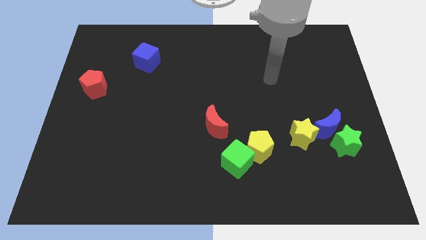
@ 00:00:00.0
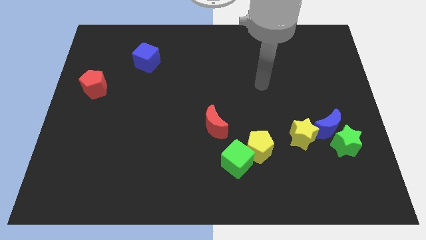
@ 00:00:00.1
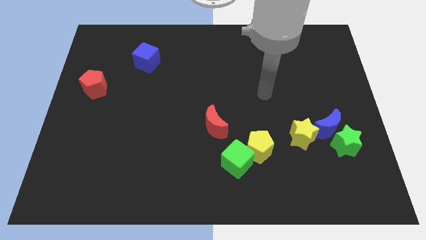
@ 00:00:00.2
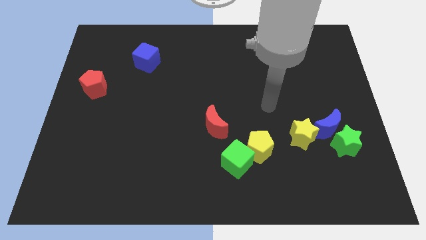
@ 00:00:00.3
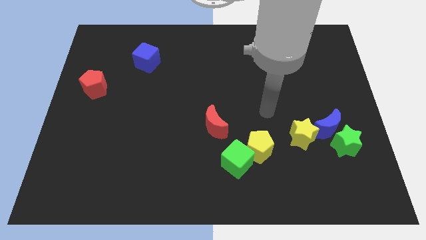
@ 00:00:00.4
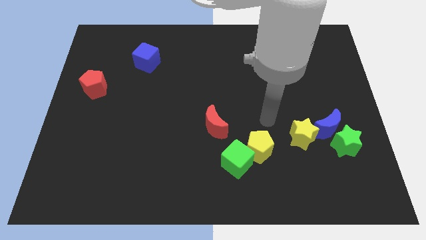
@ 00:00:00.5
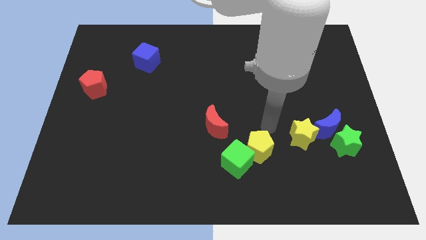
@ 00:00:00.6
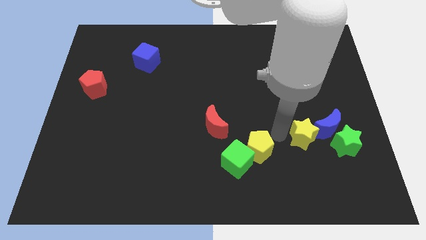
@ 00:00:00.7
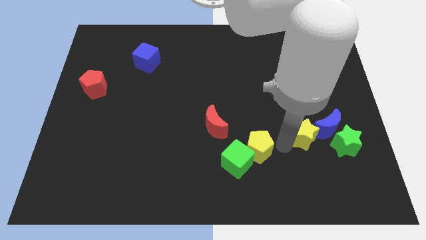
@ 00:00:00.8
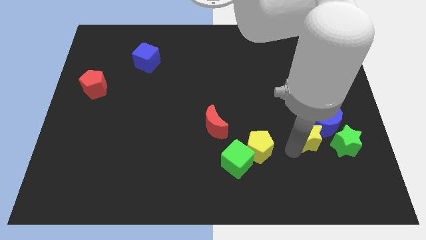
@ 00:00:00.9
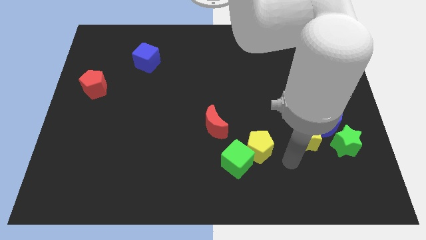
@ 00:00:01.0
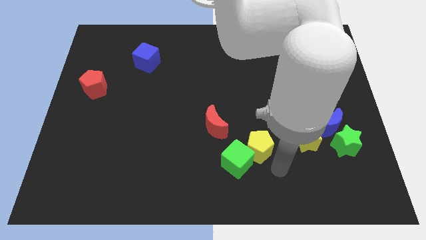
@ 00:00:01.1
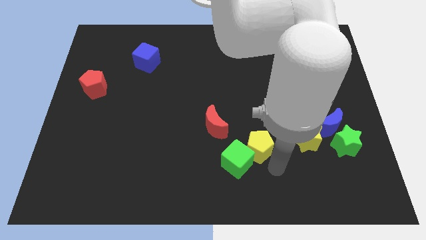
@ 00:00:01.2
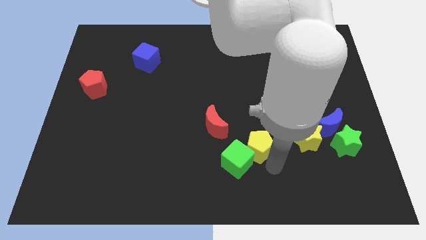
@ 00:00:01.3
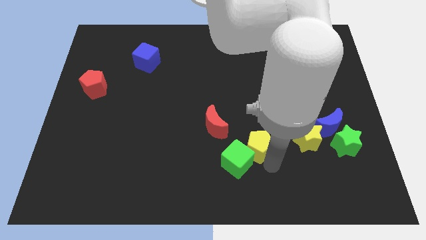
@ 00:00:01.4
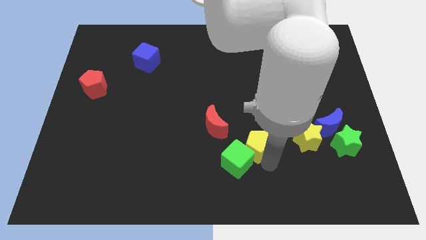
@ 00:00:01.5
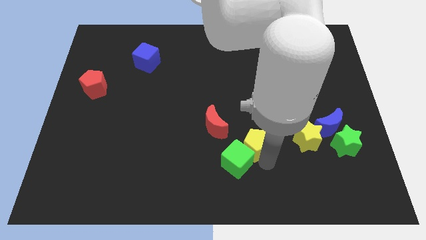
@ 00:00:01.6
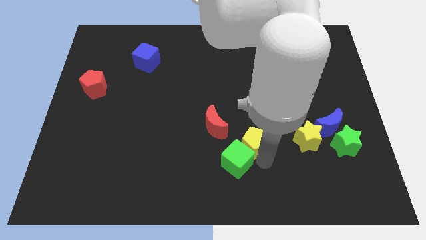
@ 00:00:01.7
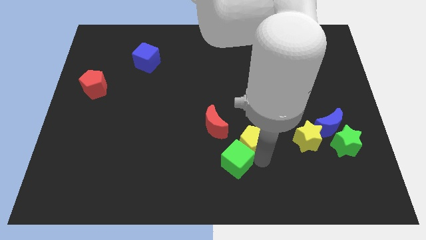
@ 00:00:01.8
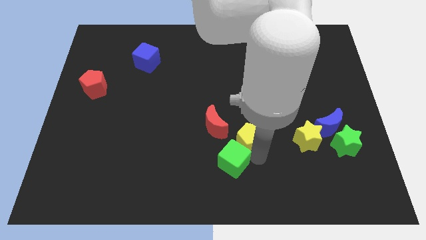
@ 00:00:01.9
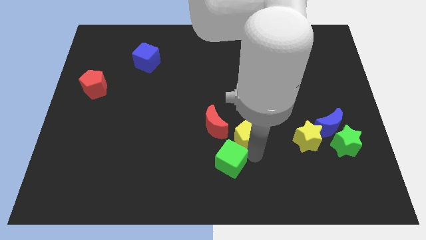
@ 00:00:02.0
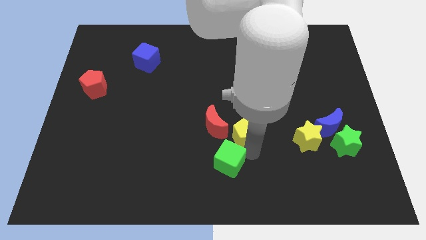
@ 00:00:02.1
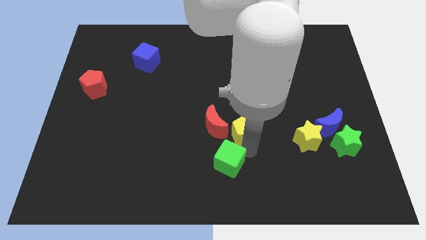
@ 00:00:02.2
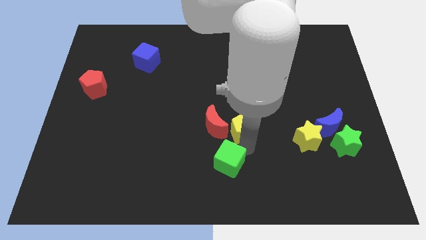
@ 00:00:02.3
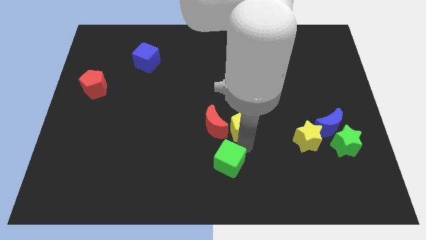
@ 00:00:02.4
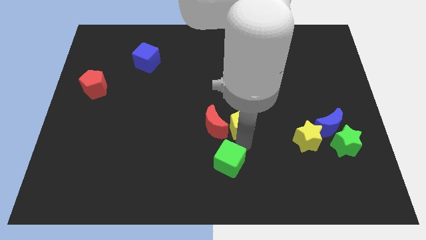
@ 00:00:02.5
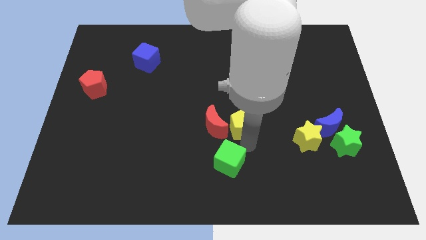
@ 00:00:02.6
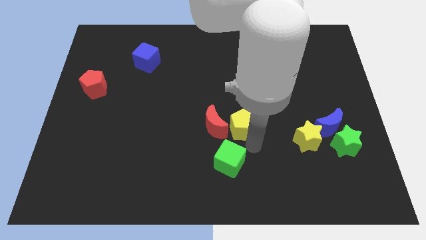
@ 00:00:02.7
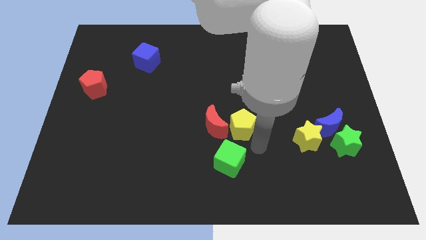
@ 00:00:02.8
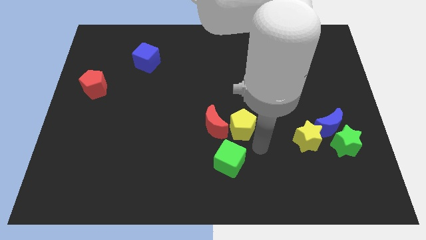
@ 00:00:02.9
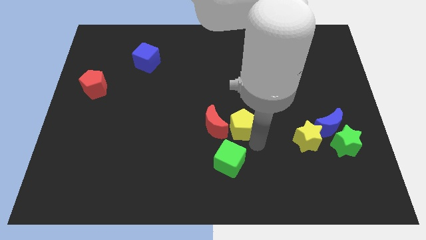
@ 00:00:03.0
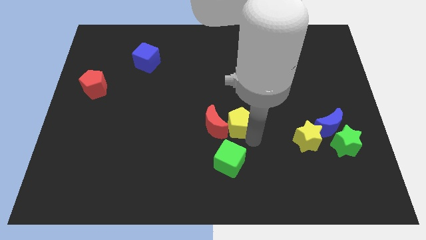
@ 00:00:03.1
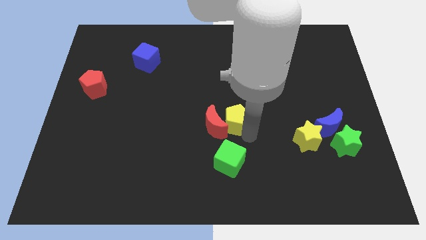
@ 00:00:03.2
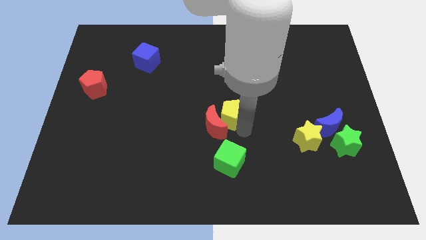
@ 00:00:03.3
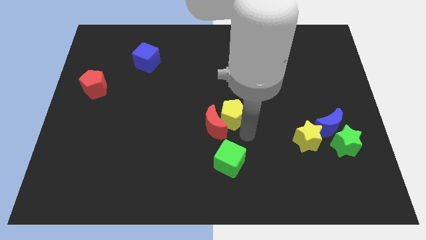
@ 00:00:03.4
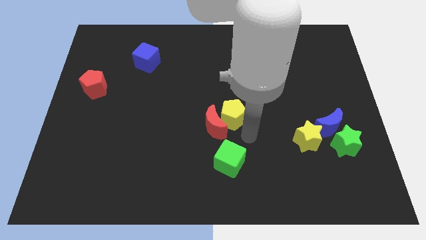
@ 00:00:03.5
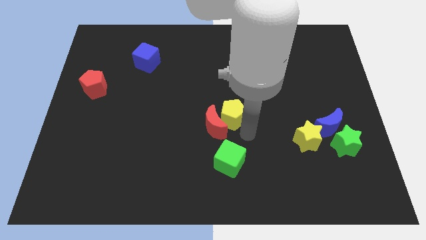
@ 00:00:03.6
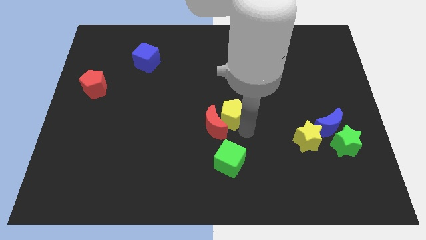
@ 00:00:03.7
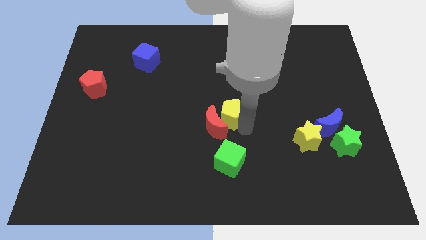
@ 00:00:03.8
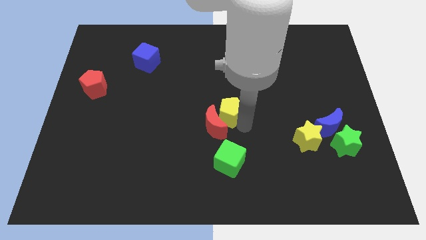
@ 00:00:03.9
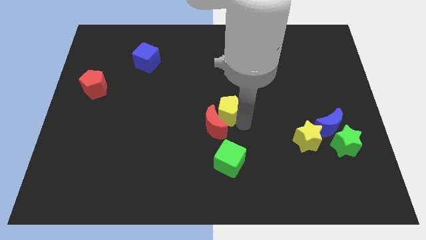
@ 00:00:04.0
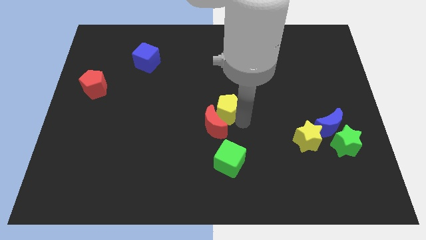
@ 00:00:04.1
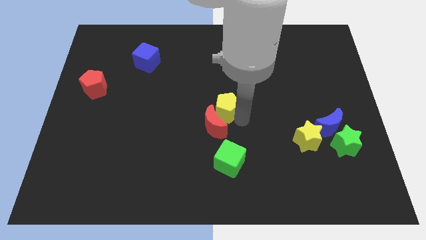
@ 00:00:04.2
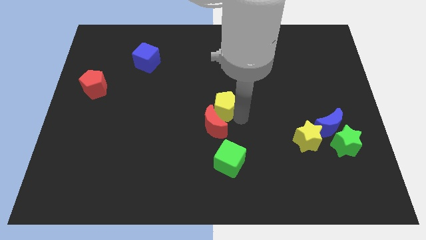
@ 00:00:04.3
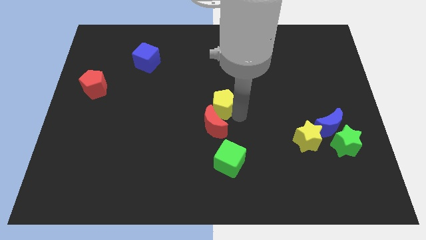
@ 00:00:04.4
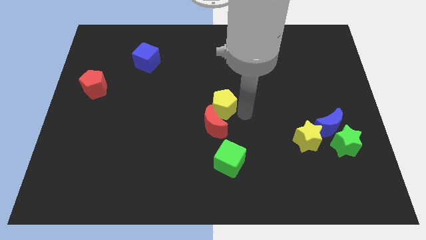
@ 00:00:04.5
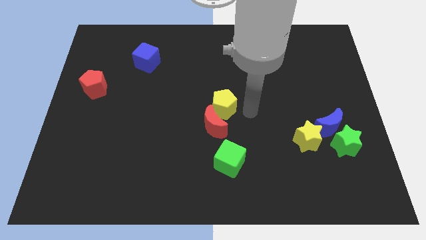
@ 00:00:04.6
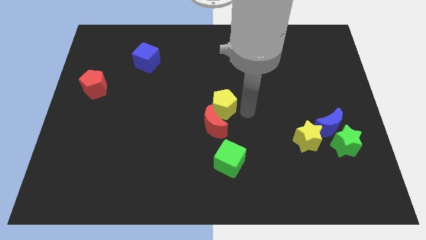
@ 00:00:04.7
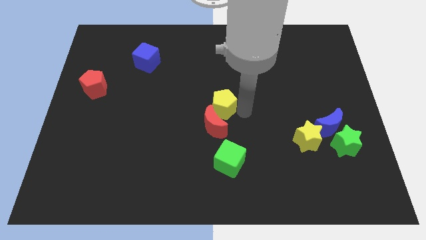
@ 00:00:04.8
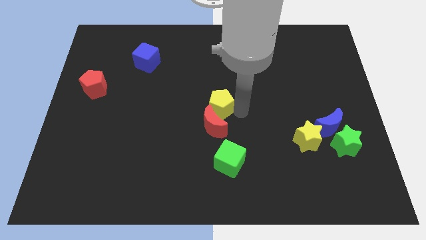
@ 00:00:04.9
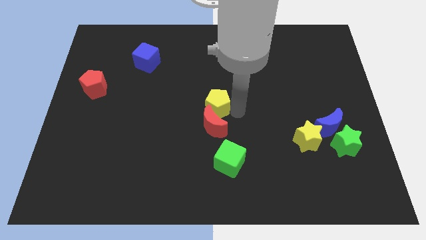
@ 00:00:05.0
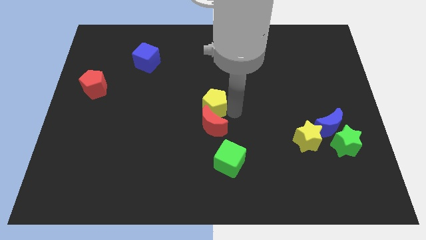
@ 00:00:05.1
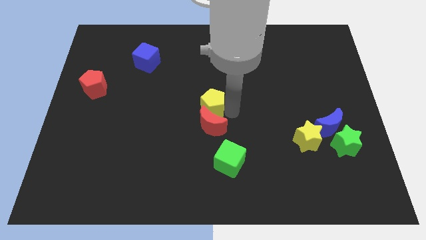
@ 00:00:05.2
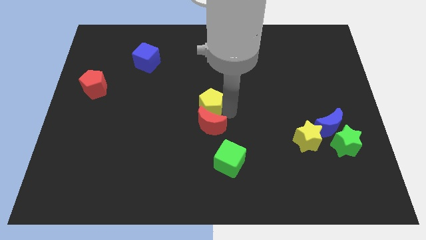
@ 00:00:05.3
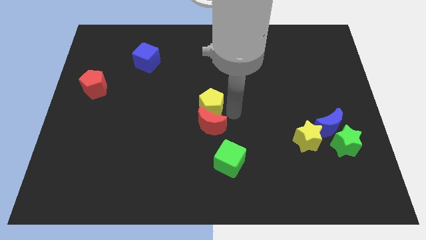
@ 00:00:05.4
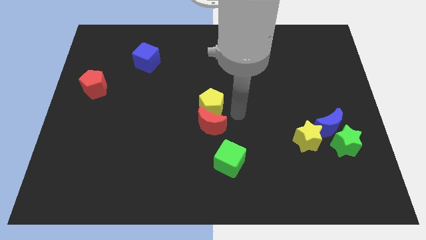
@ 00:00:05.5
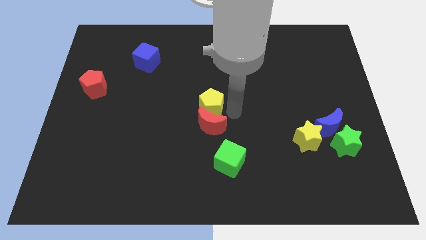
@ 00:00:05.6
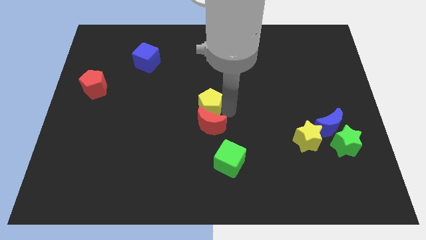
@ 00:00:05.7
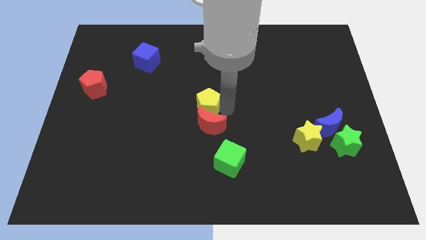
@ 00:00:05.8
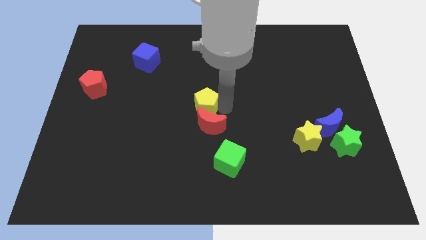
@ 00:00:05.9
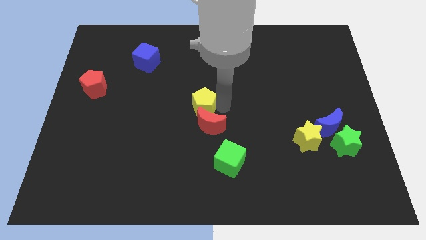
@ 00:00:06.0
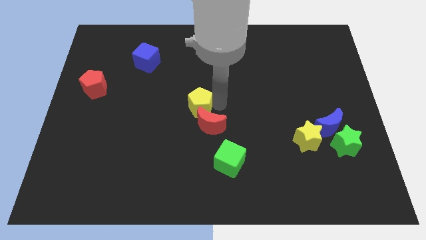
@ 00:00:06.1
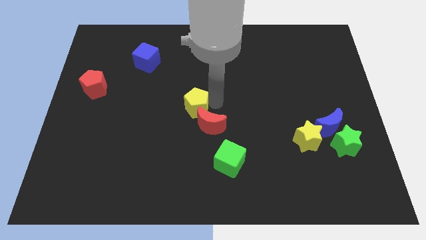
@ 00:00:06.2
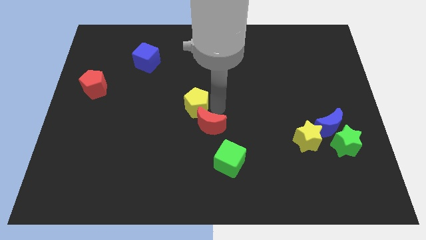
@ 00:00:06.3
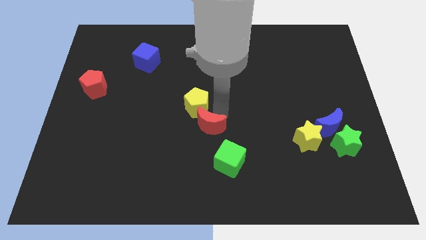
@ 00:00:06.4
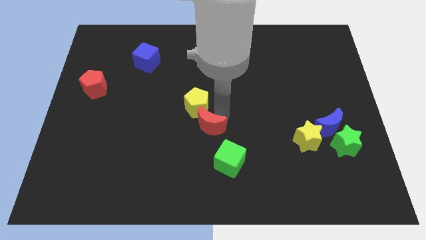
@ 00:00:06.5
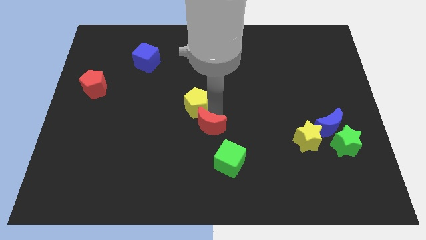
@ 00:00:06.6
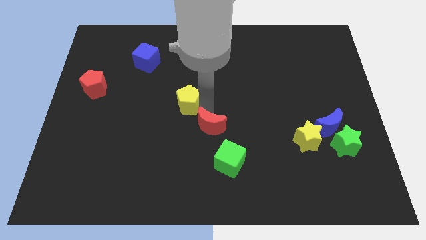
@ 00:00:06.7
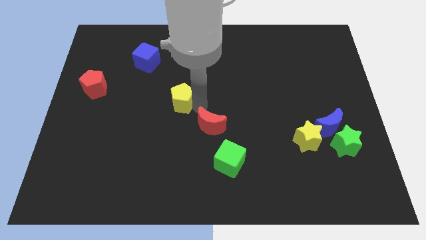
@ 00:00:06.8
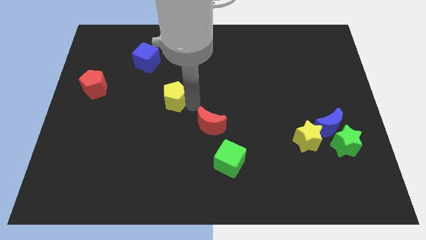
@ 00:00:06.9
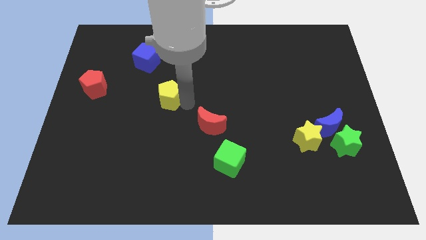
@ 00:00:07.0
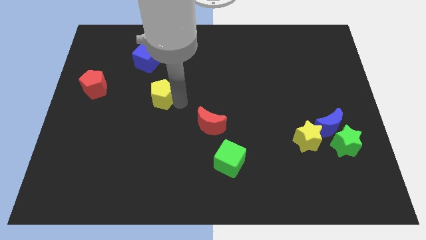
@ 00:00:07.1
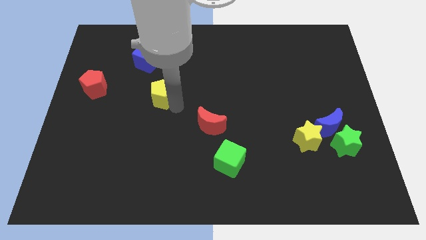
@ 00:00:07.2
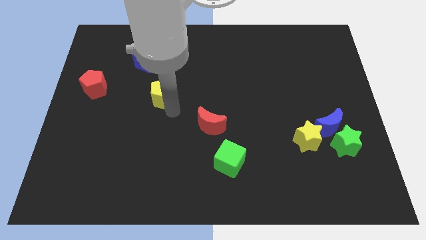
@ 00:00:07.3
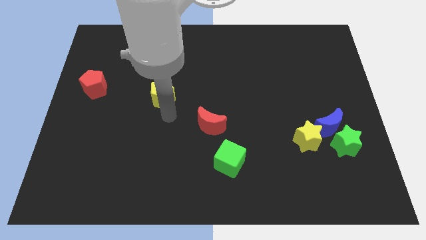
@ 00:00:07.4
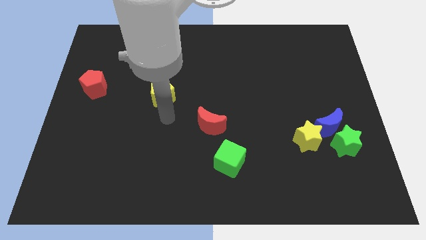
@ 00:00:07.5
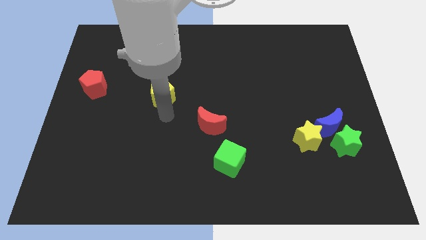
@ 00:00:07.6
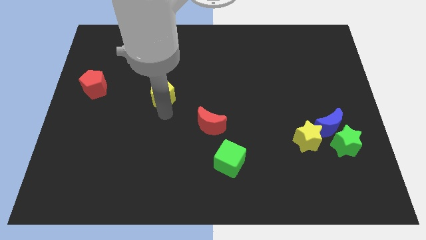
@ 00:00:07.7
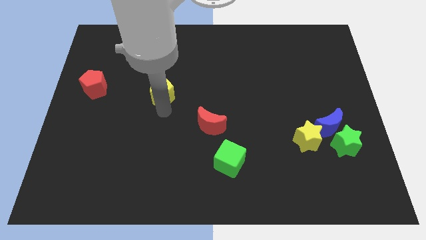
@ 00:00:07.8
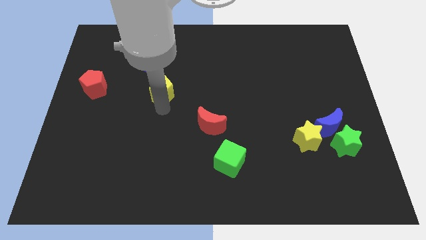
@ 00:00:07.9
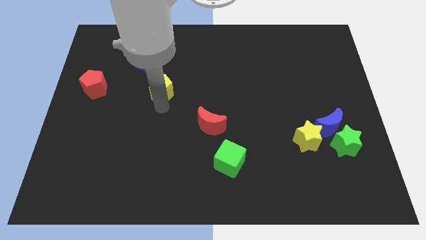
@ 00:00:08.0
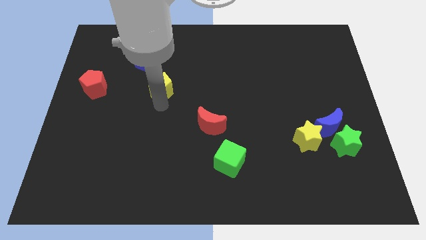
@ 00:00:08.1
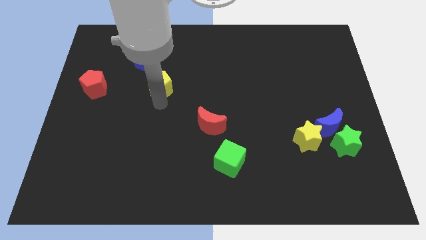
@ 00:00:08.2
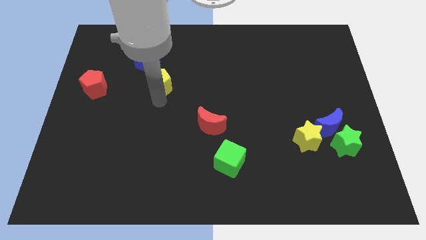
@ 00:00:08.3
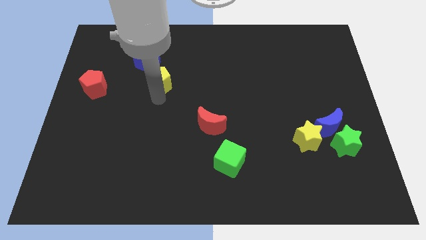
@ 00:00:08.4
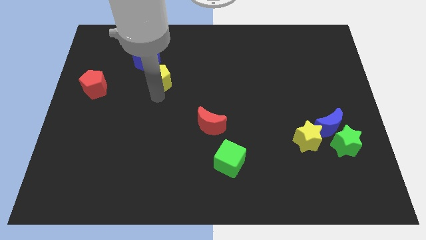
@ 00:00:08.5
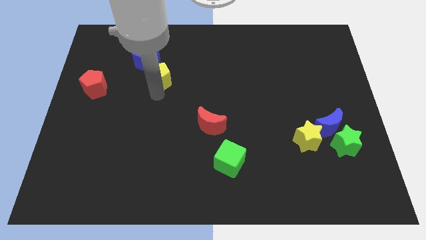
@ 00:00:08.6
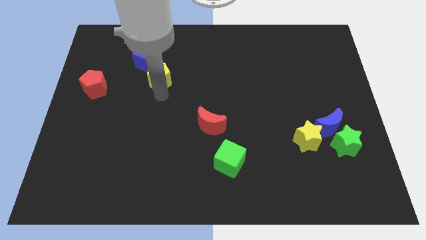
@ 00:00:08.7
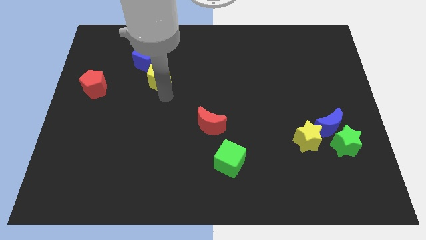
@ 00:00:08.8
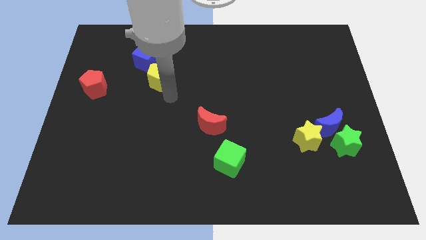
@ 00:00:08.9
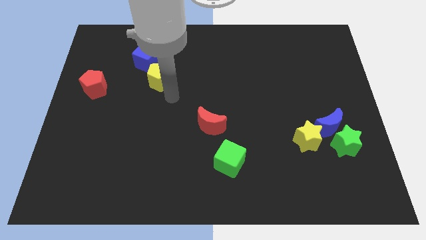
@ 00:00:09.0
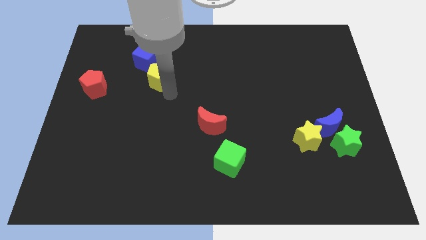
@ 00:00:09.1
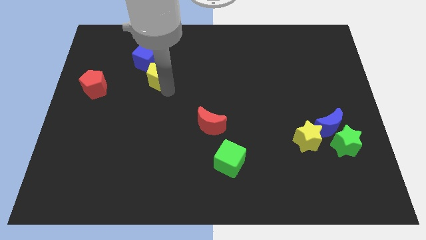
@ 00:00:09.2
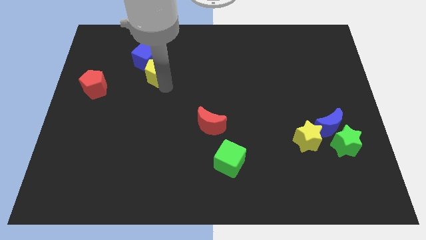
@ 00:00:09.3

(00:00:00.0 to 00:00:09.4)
move the yellow pentagon towards the blue cube
